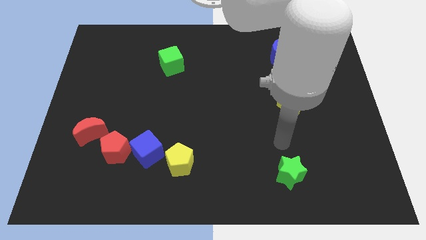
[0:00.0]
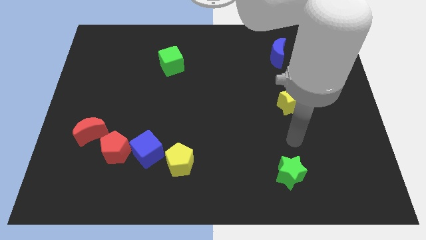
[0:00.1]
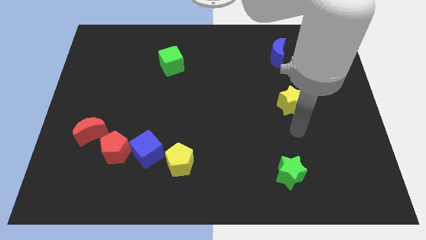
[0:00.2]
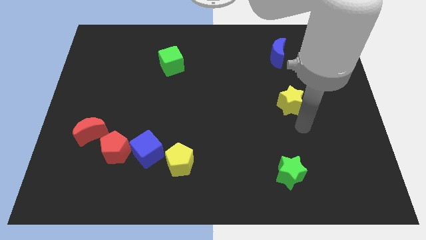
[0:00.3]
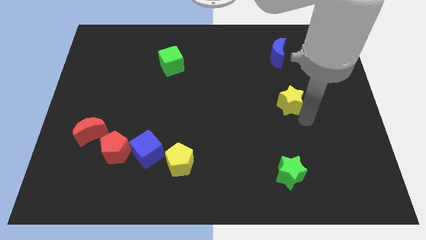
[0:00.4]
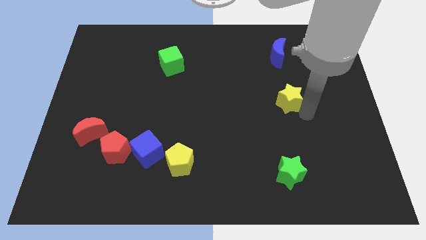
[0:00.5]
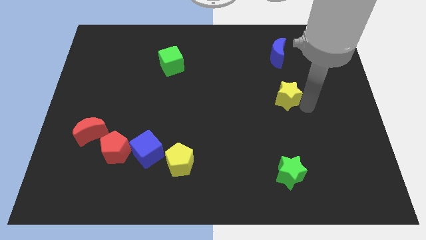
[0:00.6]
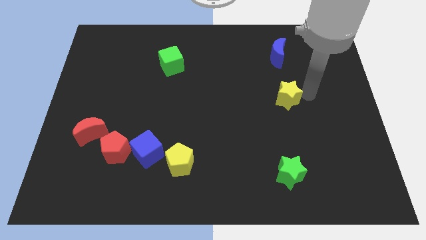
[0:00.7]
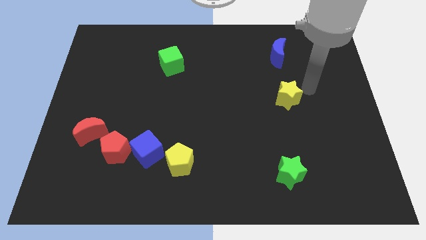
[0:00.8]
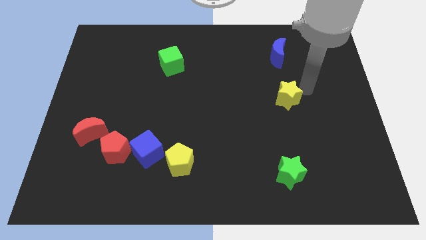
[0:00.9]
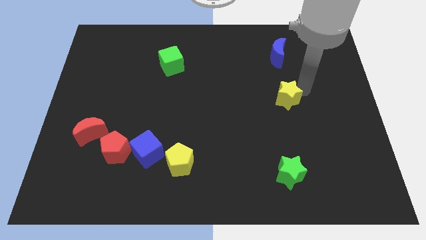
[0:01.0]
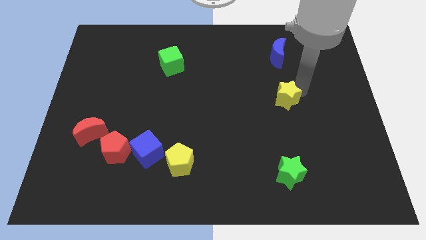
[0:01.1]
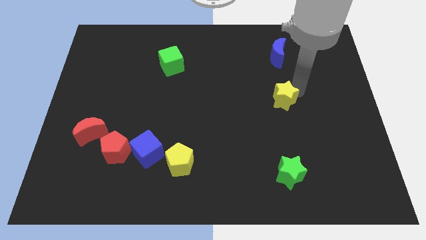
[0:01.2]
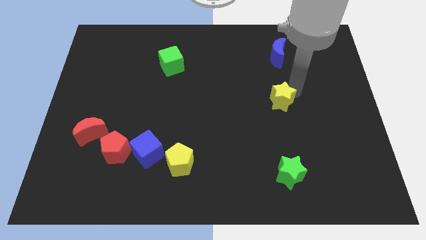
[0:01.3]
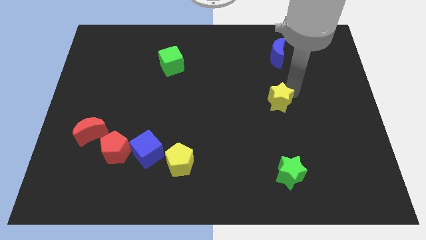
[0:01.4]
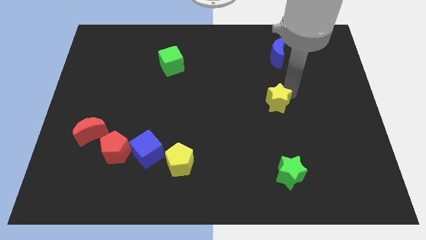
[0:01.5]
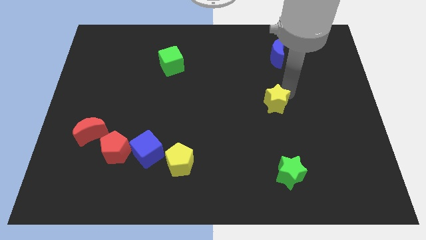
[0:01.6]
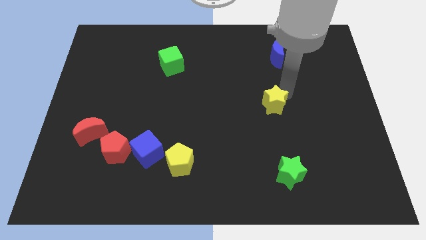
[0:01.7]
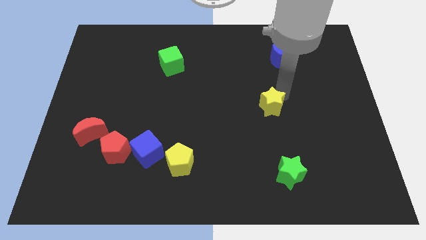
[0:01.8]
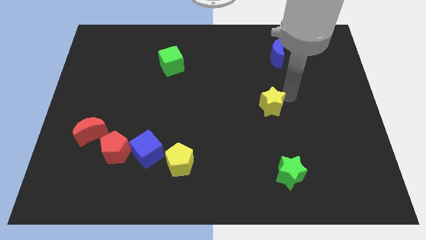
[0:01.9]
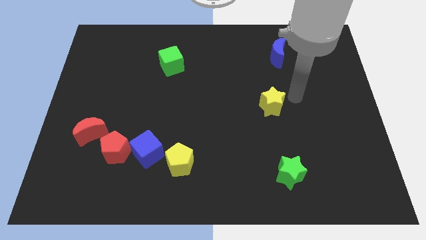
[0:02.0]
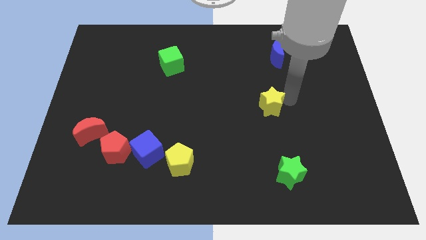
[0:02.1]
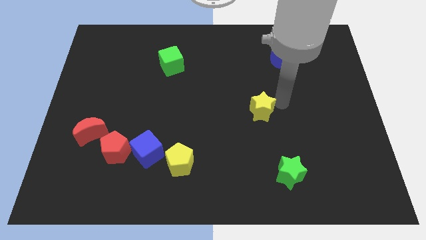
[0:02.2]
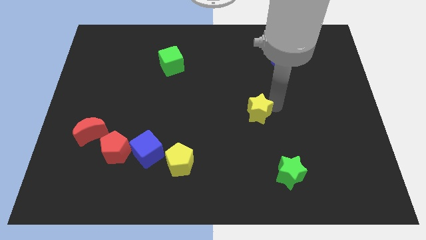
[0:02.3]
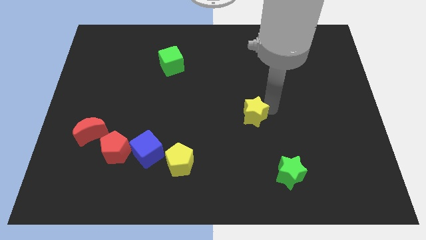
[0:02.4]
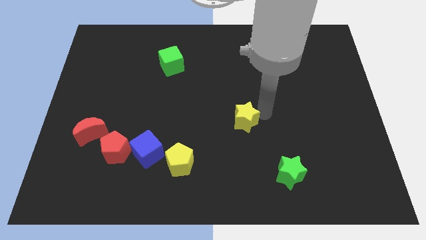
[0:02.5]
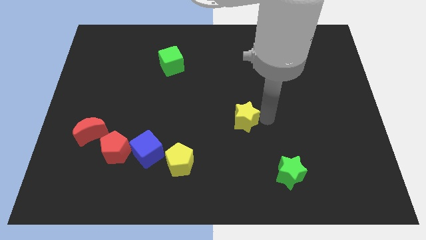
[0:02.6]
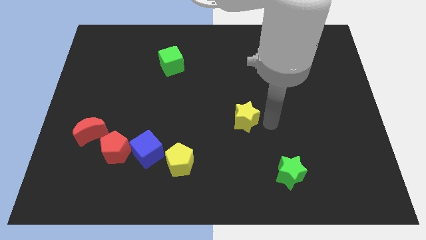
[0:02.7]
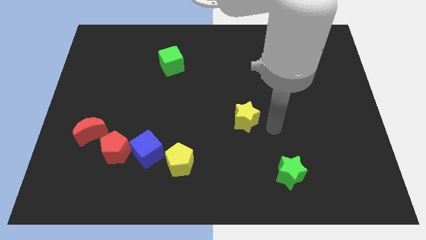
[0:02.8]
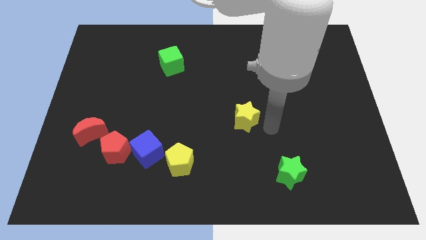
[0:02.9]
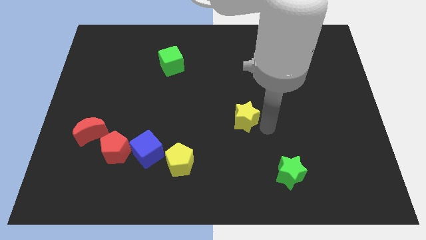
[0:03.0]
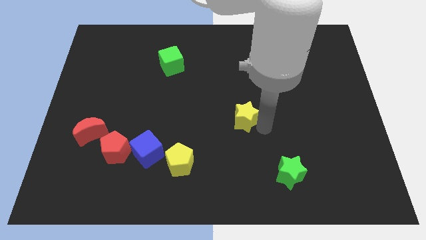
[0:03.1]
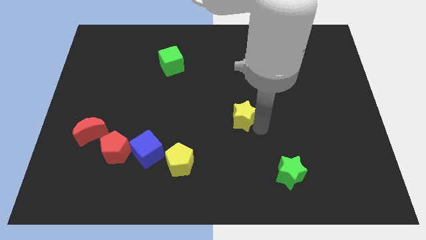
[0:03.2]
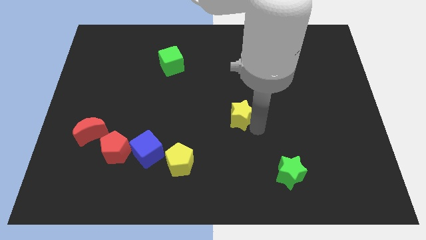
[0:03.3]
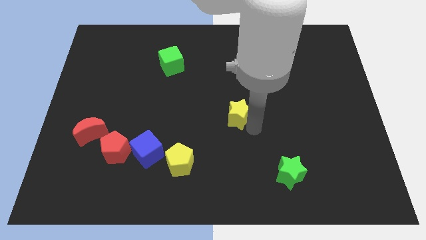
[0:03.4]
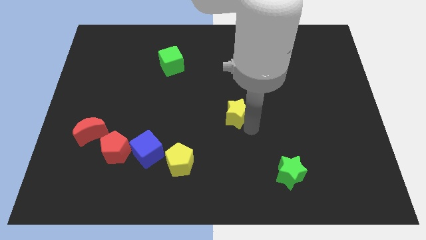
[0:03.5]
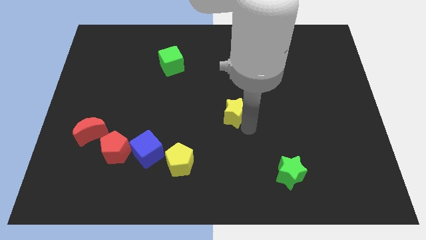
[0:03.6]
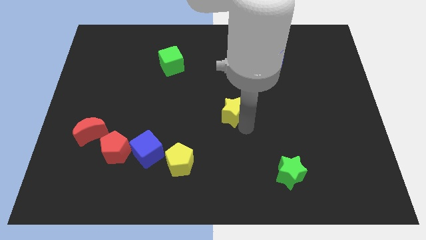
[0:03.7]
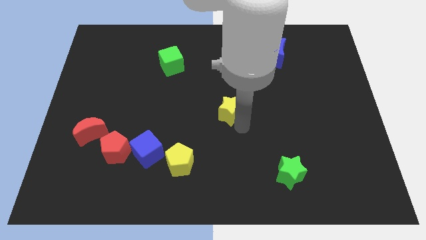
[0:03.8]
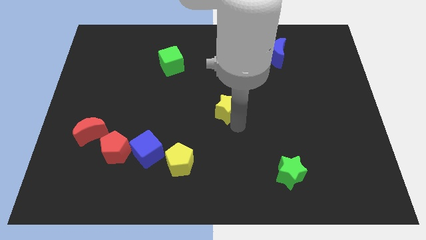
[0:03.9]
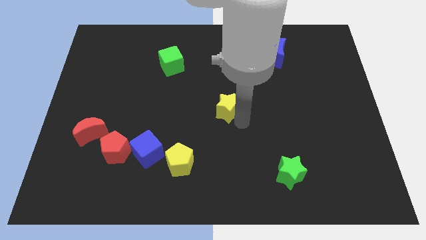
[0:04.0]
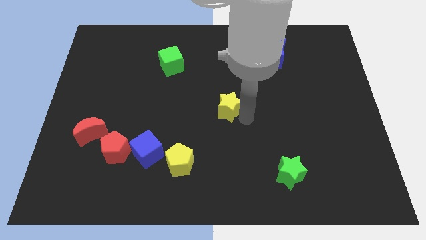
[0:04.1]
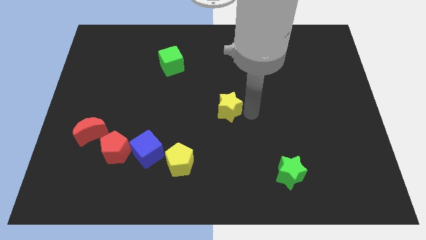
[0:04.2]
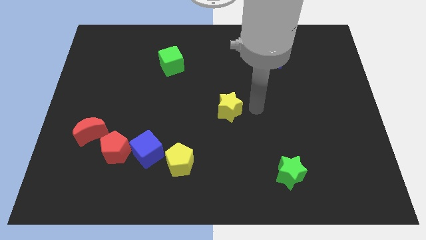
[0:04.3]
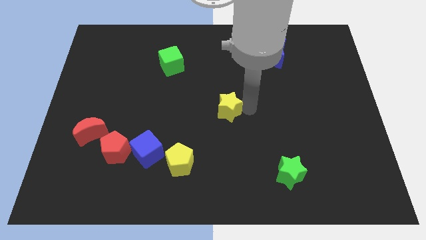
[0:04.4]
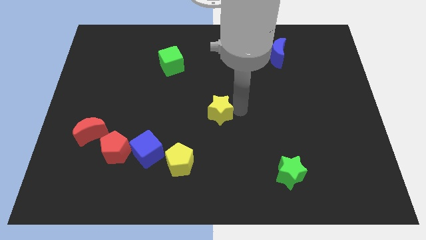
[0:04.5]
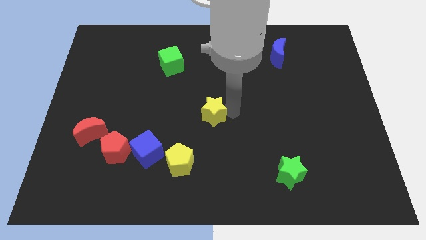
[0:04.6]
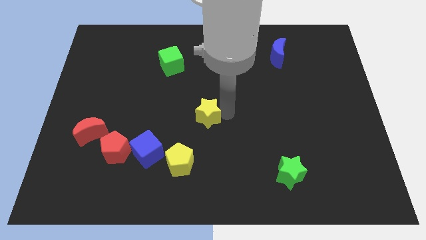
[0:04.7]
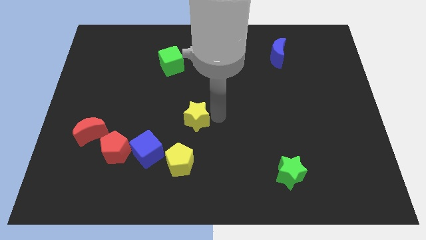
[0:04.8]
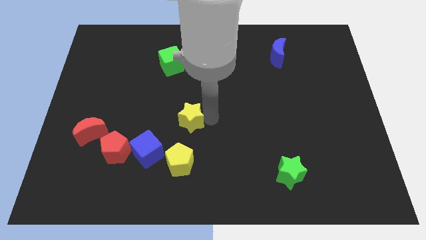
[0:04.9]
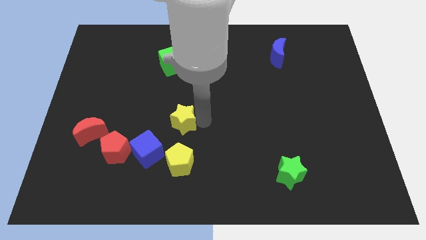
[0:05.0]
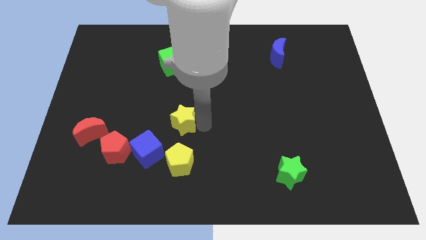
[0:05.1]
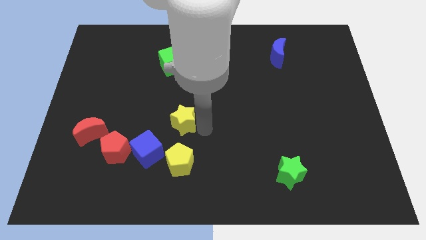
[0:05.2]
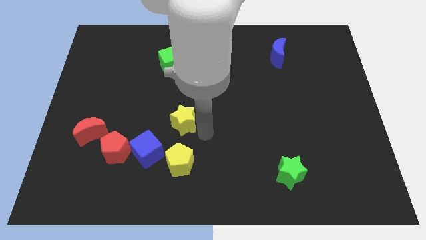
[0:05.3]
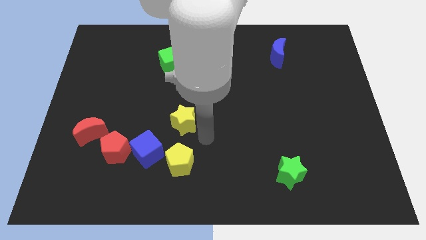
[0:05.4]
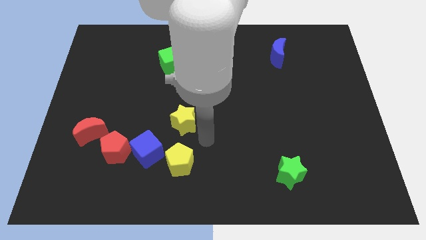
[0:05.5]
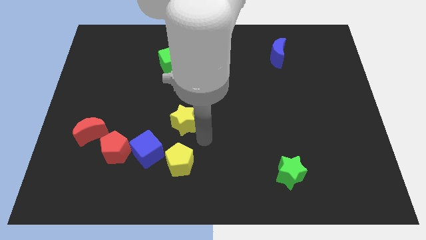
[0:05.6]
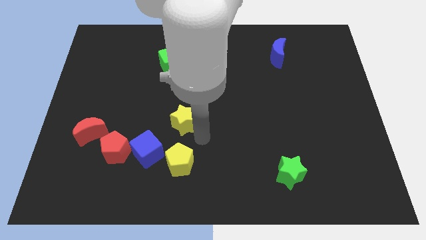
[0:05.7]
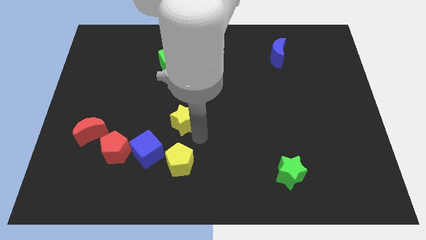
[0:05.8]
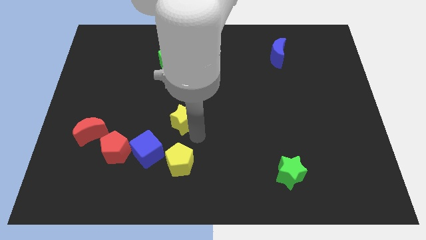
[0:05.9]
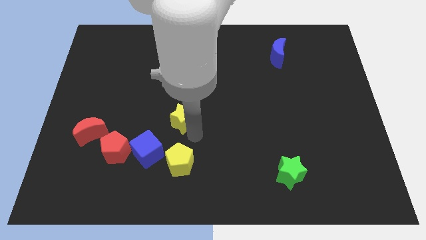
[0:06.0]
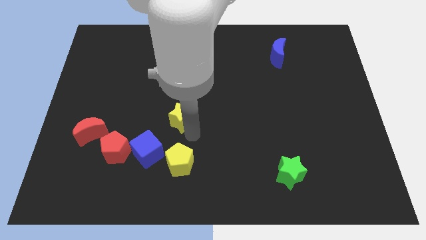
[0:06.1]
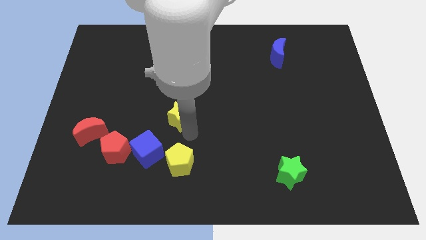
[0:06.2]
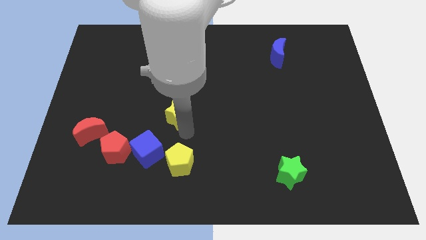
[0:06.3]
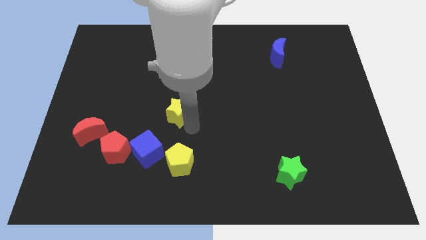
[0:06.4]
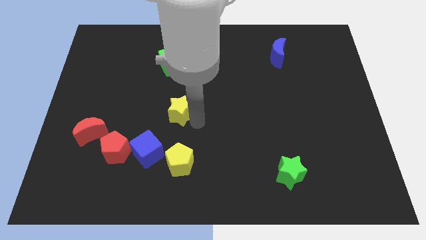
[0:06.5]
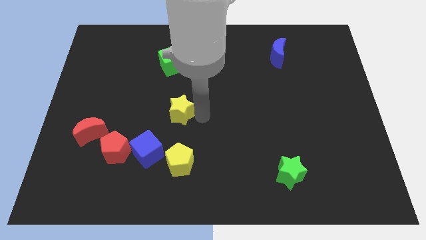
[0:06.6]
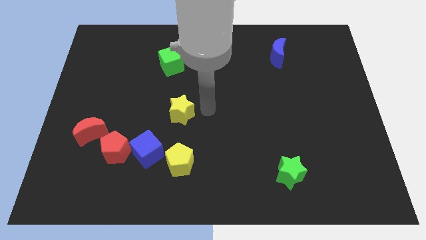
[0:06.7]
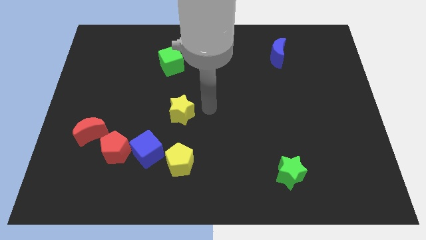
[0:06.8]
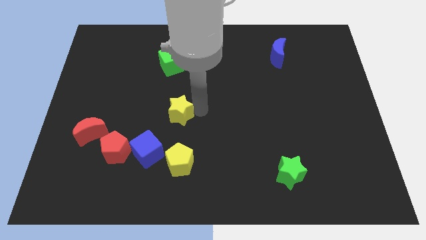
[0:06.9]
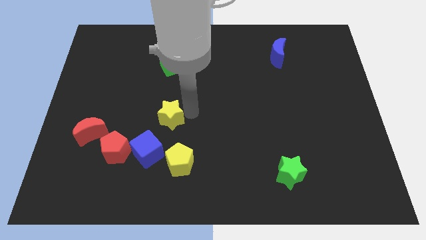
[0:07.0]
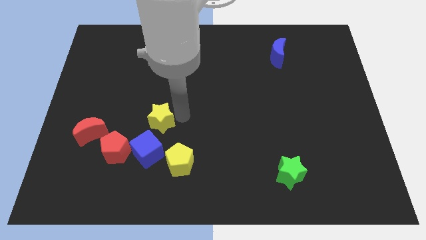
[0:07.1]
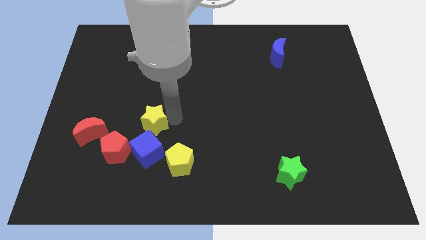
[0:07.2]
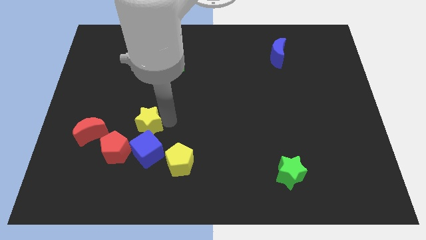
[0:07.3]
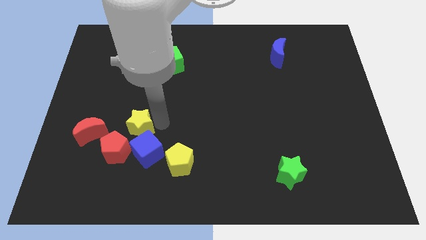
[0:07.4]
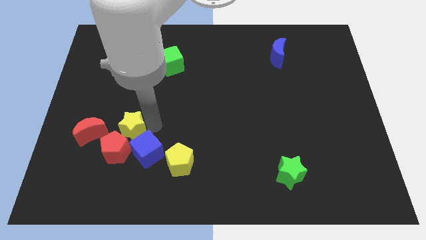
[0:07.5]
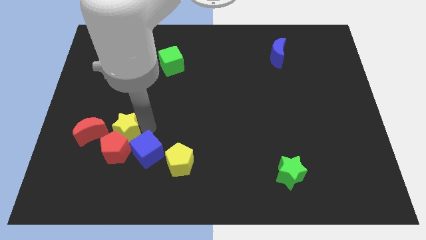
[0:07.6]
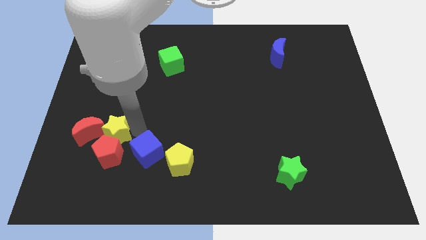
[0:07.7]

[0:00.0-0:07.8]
move the yellow star to the red moon
